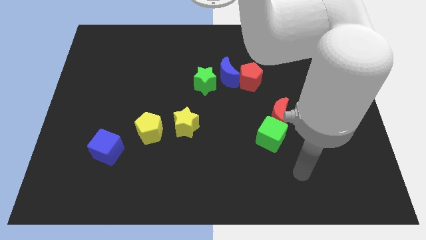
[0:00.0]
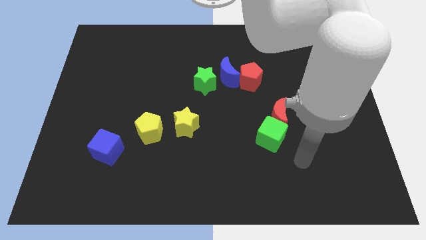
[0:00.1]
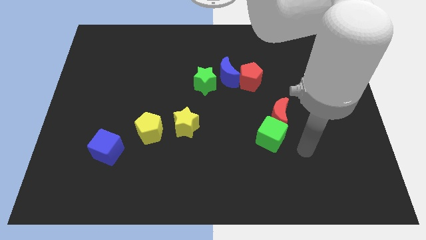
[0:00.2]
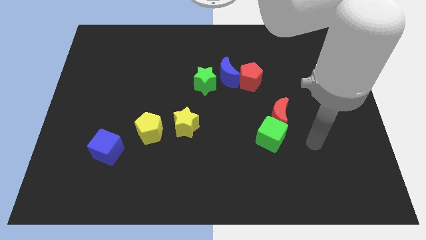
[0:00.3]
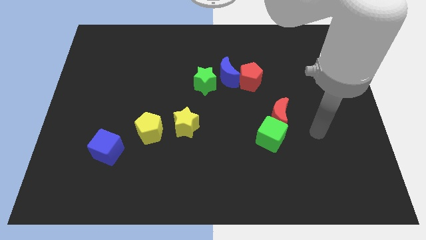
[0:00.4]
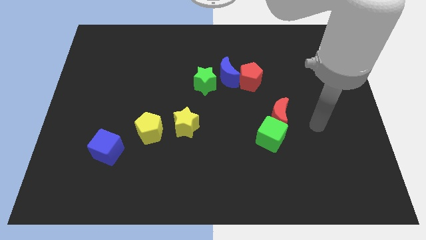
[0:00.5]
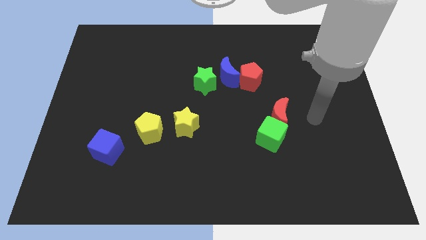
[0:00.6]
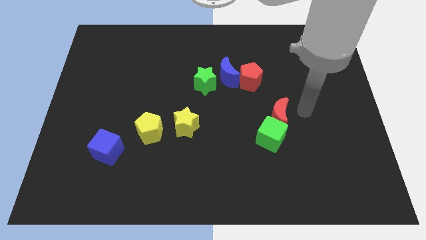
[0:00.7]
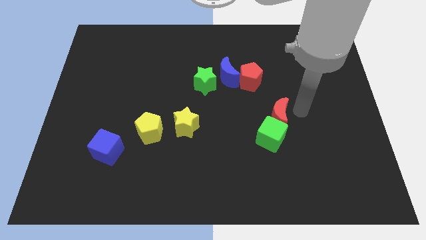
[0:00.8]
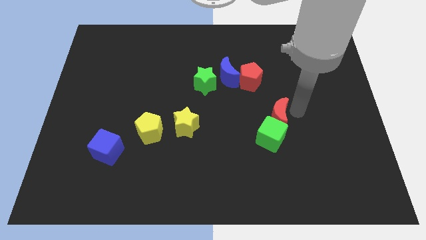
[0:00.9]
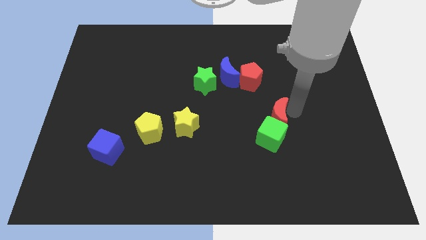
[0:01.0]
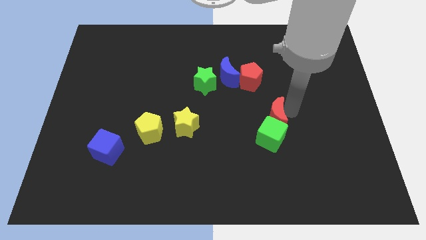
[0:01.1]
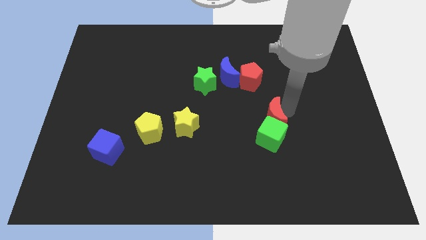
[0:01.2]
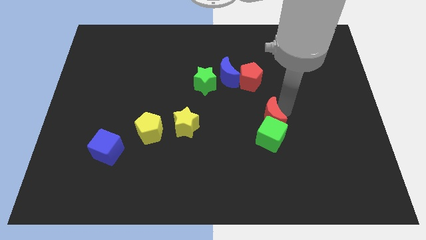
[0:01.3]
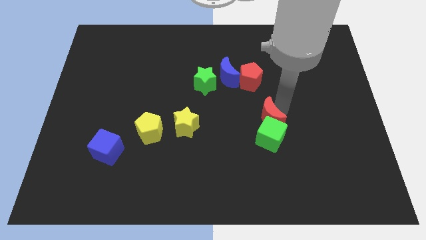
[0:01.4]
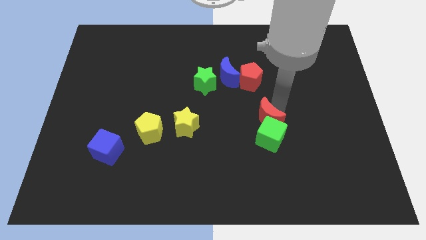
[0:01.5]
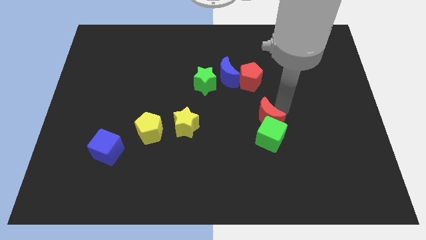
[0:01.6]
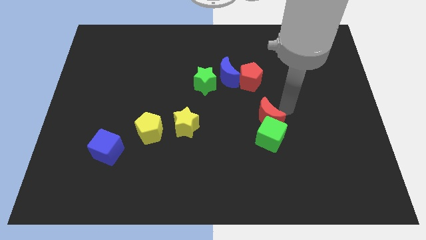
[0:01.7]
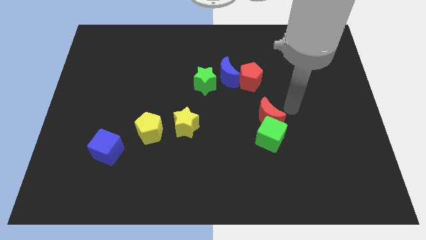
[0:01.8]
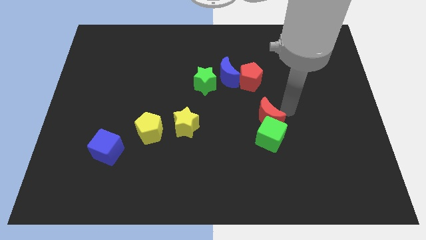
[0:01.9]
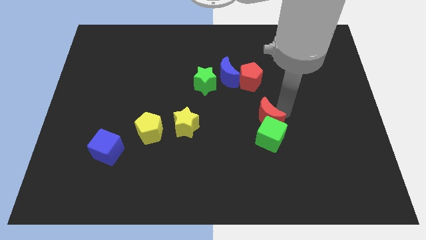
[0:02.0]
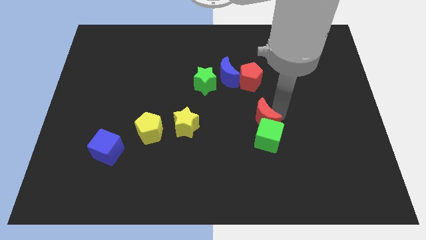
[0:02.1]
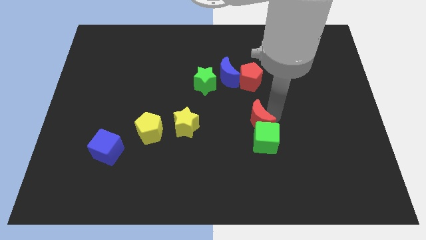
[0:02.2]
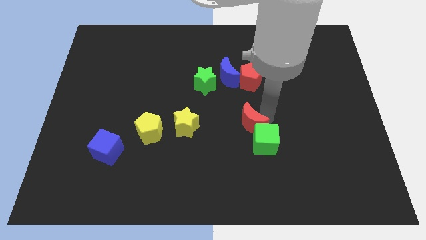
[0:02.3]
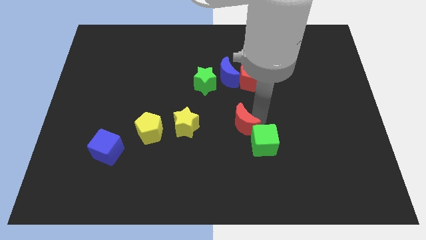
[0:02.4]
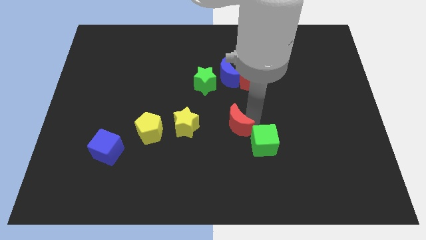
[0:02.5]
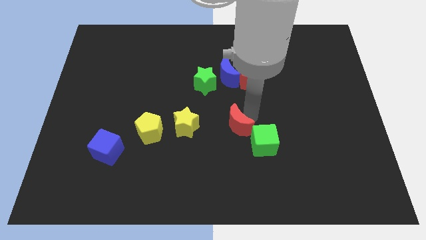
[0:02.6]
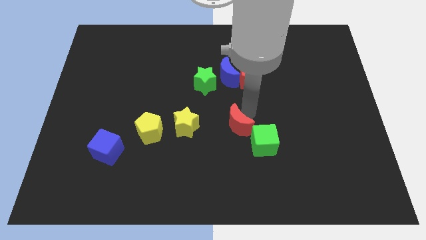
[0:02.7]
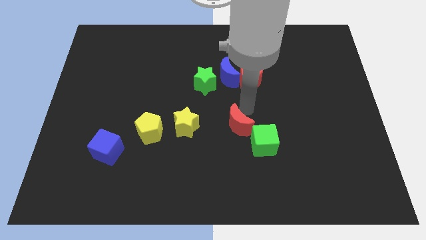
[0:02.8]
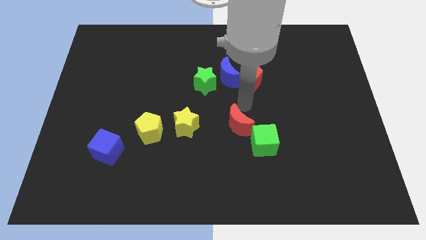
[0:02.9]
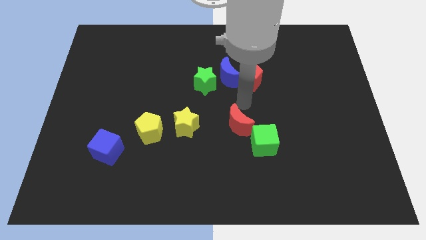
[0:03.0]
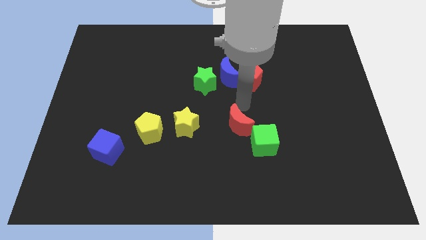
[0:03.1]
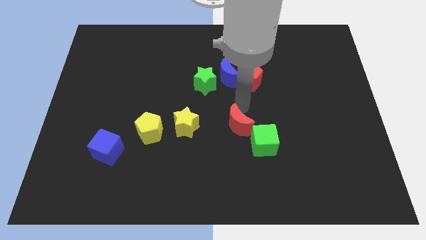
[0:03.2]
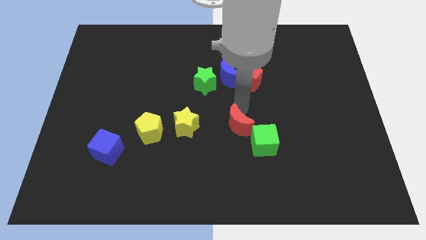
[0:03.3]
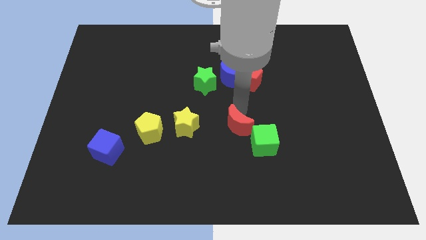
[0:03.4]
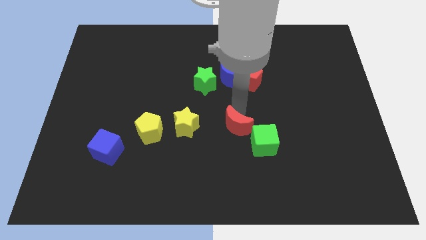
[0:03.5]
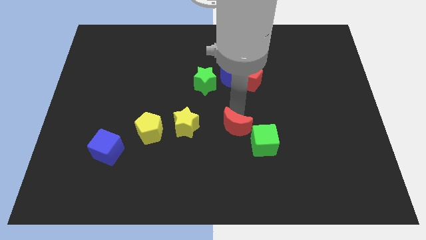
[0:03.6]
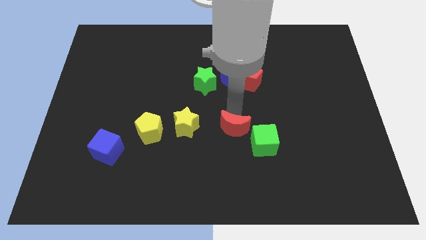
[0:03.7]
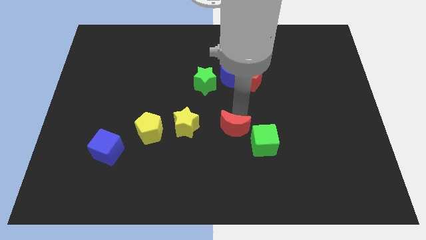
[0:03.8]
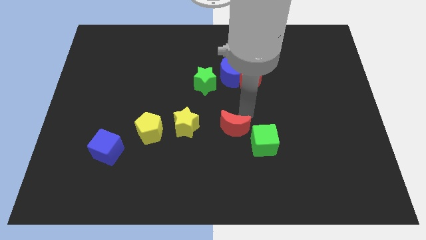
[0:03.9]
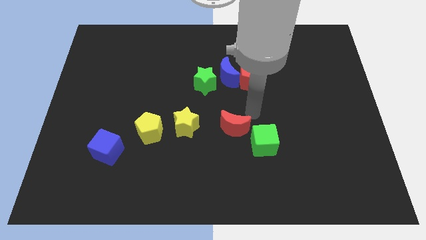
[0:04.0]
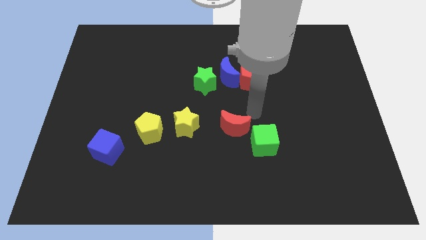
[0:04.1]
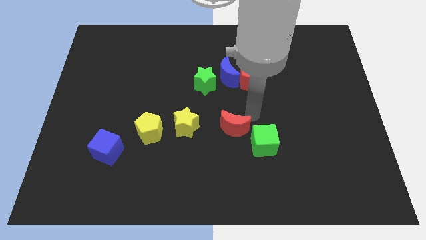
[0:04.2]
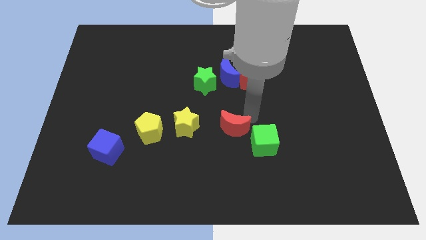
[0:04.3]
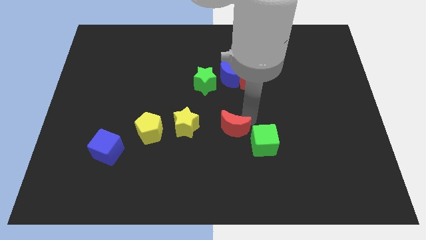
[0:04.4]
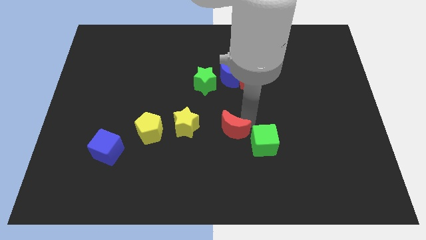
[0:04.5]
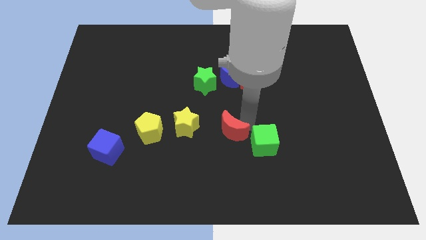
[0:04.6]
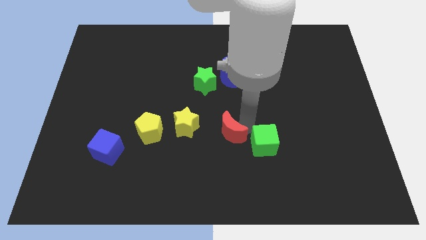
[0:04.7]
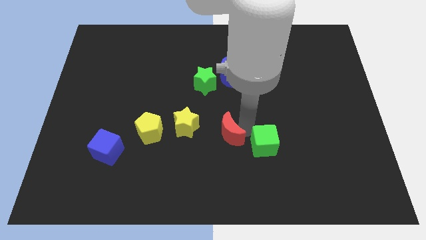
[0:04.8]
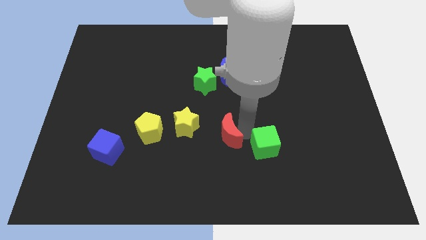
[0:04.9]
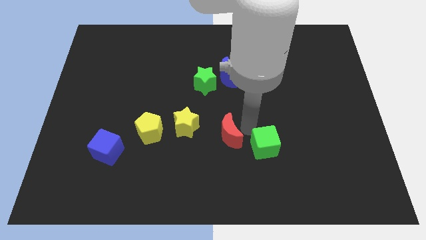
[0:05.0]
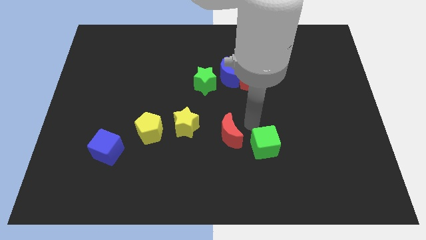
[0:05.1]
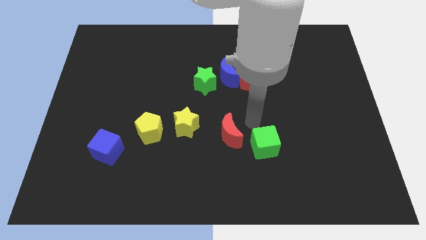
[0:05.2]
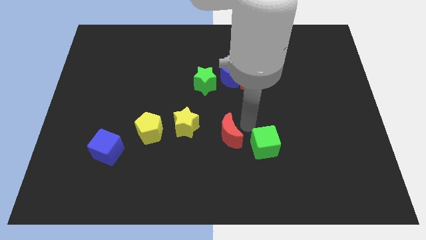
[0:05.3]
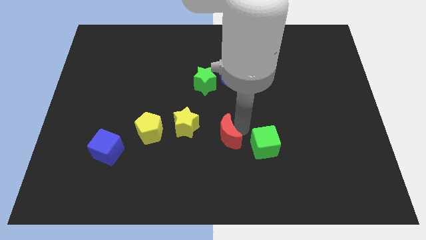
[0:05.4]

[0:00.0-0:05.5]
slide the red moon diagonally down and to the right of the yellow star

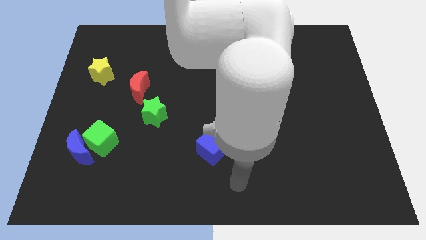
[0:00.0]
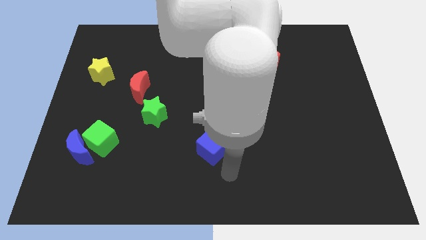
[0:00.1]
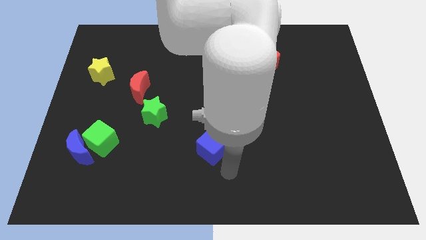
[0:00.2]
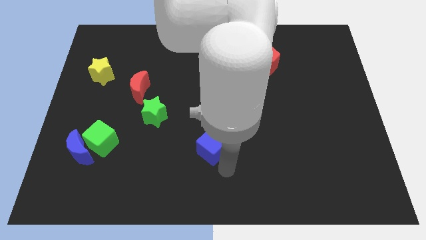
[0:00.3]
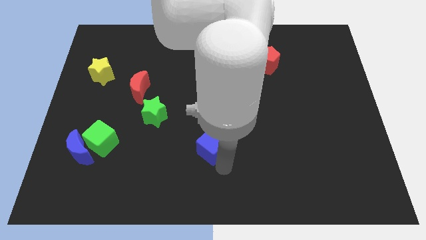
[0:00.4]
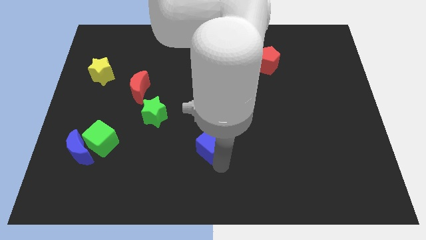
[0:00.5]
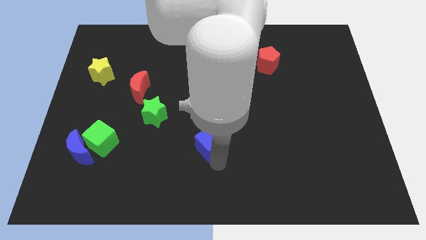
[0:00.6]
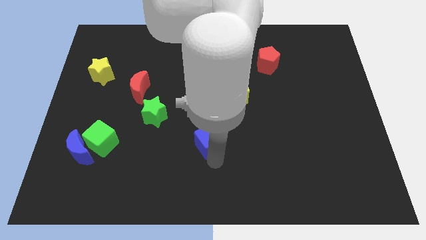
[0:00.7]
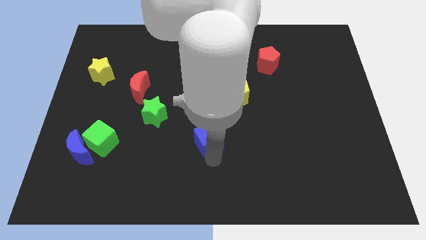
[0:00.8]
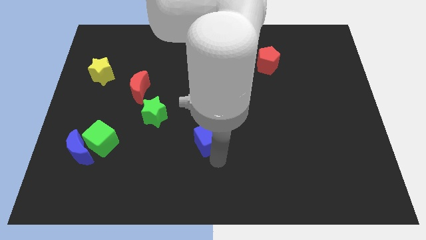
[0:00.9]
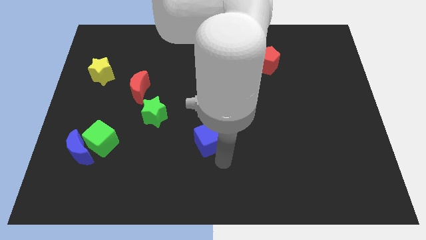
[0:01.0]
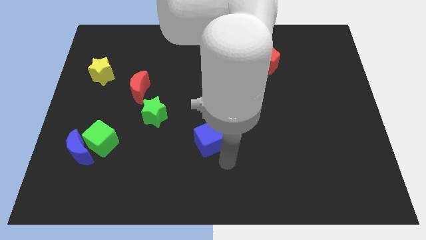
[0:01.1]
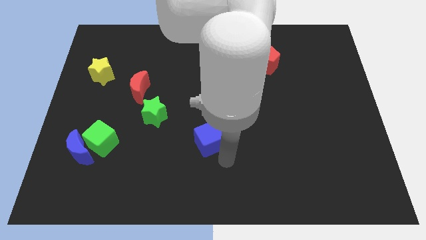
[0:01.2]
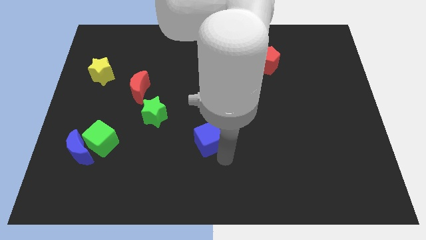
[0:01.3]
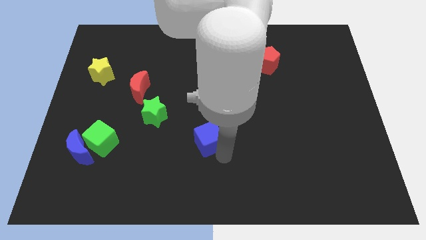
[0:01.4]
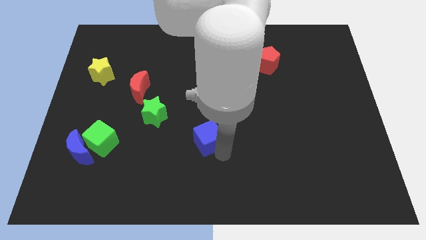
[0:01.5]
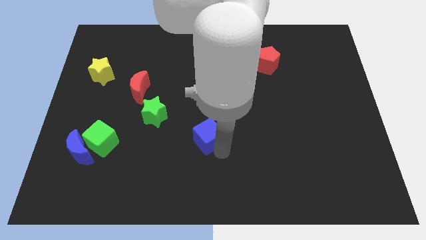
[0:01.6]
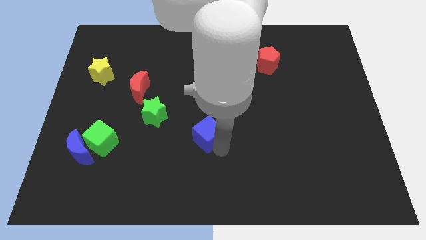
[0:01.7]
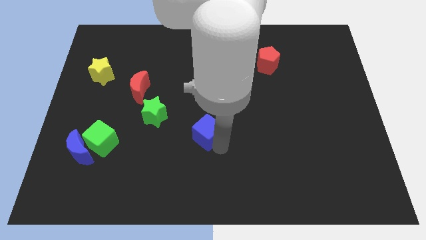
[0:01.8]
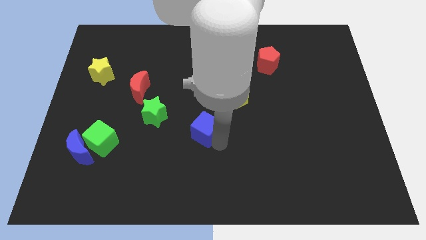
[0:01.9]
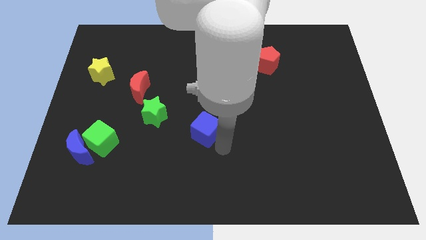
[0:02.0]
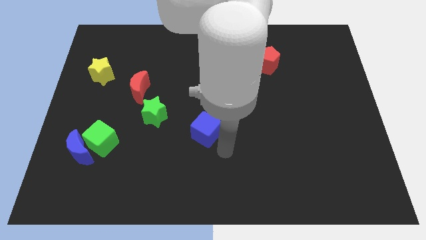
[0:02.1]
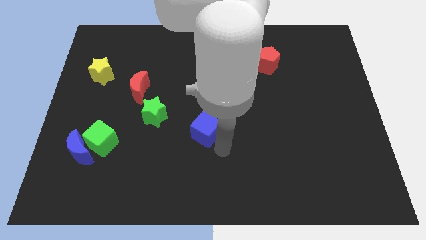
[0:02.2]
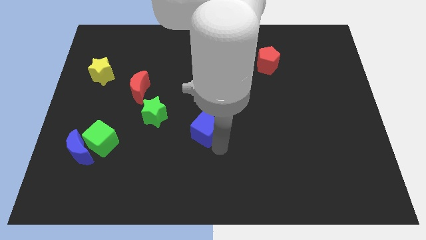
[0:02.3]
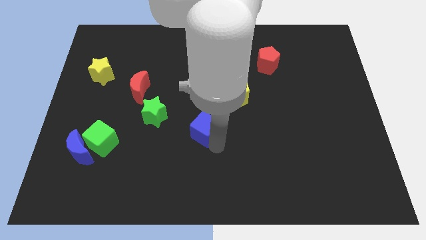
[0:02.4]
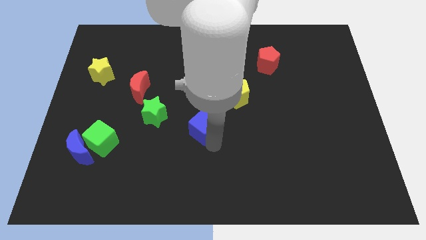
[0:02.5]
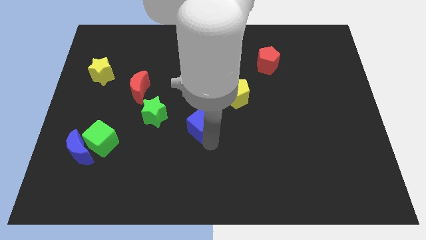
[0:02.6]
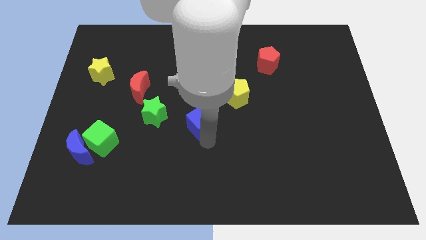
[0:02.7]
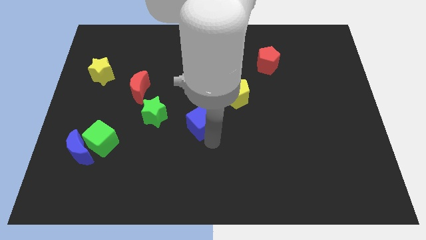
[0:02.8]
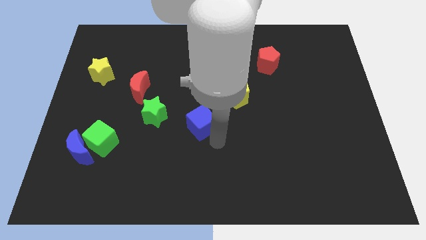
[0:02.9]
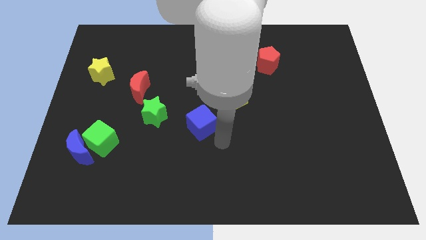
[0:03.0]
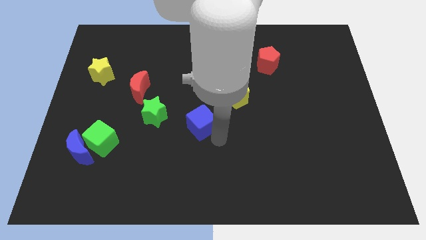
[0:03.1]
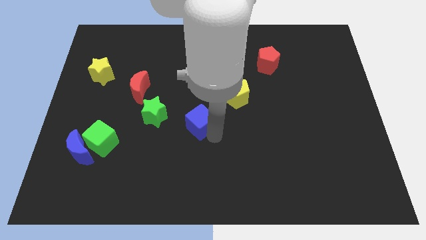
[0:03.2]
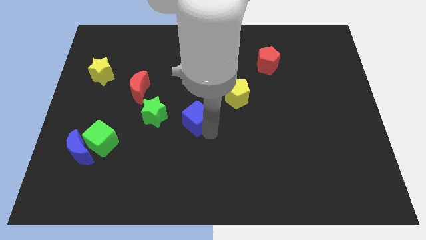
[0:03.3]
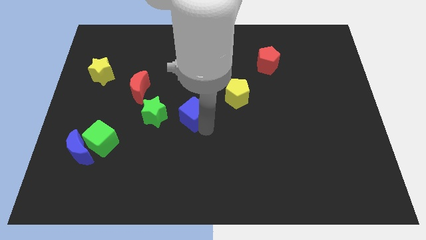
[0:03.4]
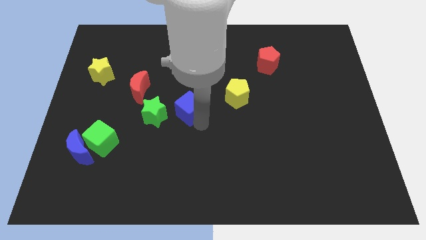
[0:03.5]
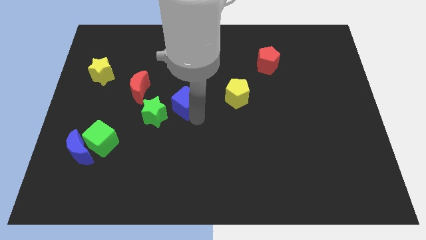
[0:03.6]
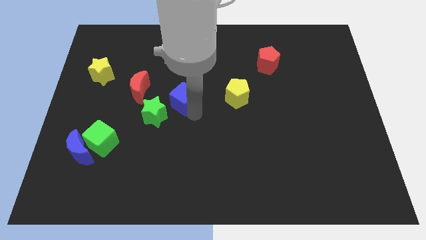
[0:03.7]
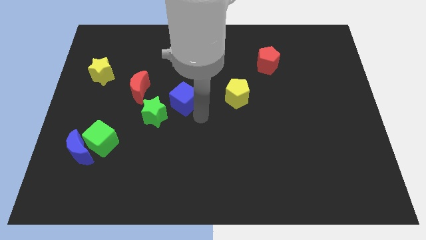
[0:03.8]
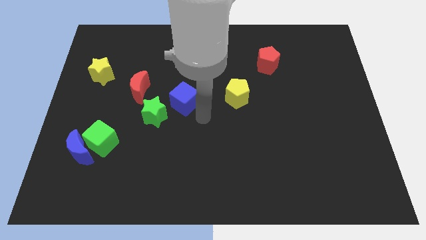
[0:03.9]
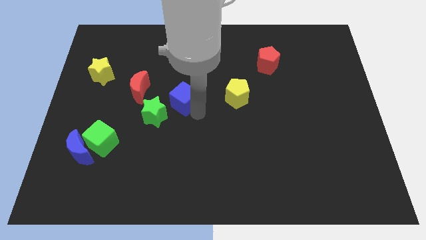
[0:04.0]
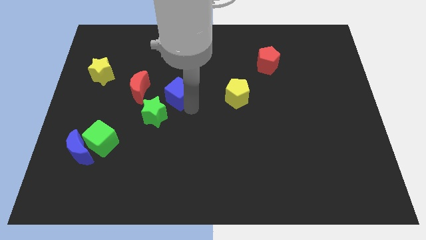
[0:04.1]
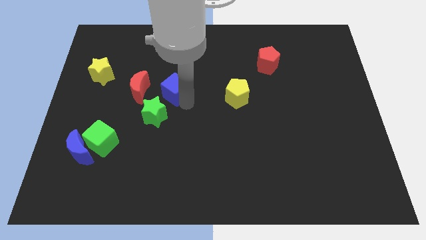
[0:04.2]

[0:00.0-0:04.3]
push the blue cube to the top side of the green star
